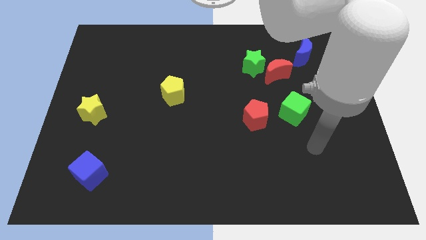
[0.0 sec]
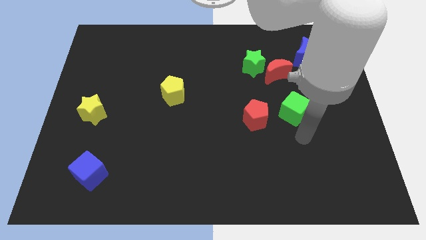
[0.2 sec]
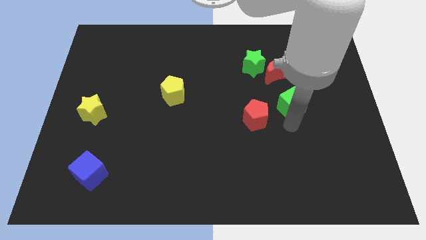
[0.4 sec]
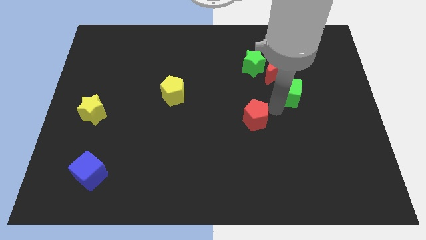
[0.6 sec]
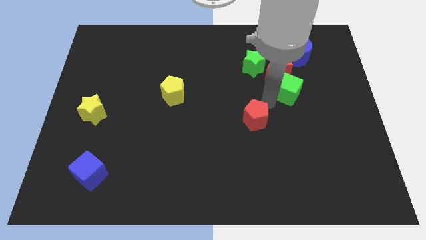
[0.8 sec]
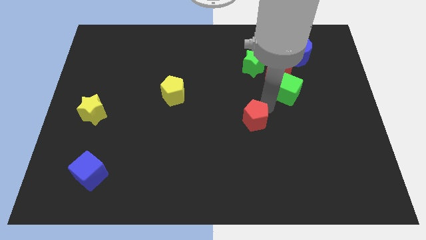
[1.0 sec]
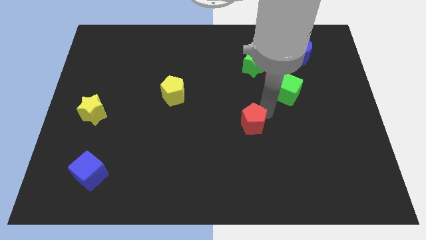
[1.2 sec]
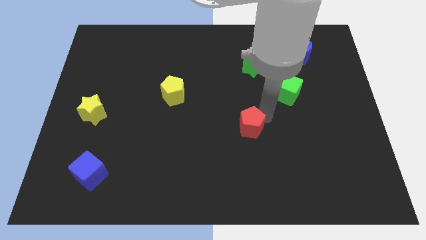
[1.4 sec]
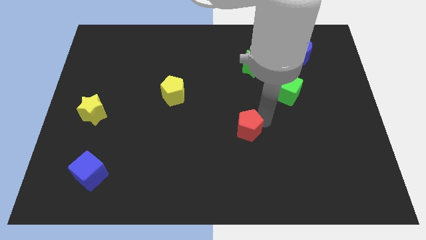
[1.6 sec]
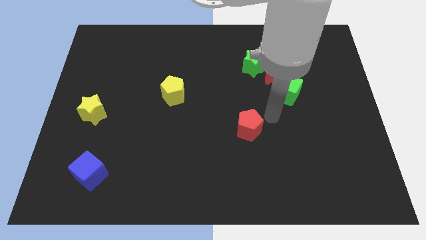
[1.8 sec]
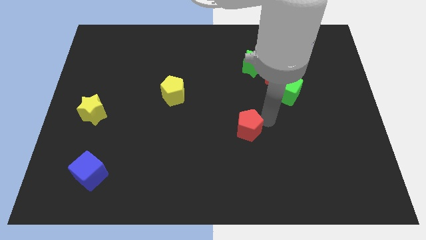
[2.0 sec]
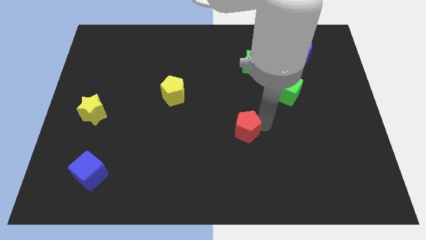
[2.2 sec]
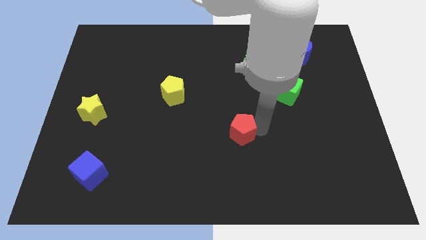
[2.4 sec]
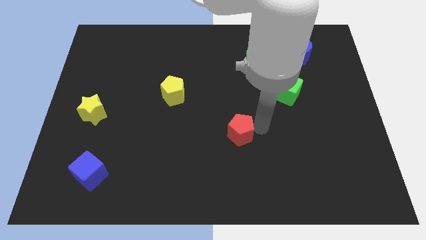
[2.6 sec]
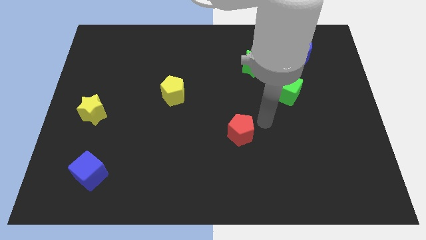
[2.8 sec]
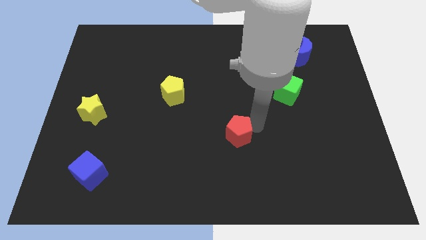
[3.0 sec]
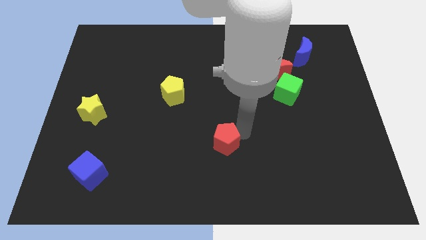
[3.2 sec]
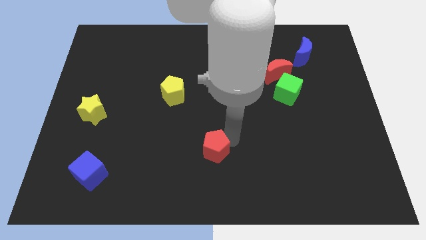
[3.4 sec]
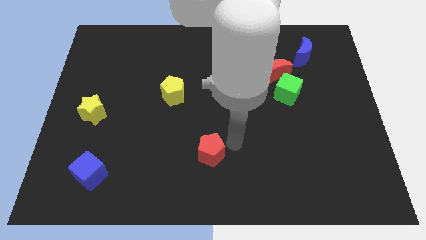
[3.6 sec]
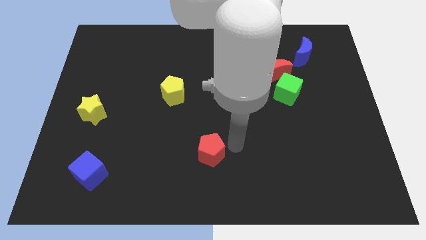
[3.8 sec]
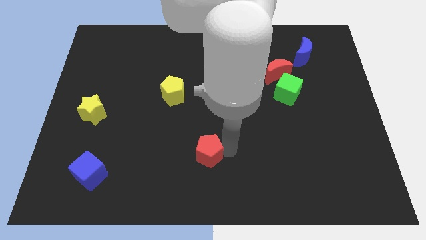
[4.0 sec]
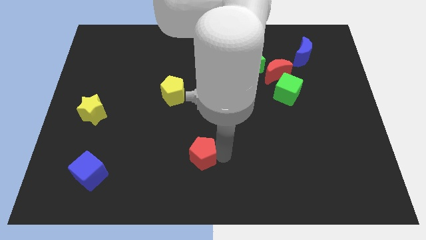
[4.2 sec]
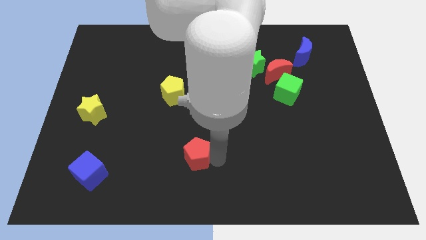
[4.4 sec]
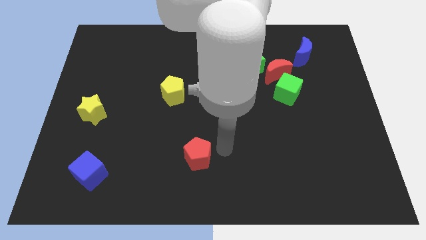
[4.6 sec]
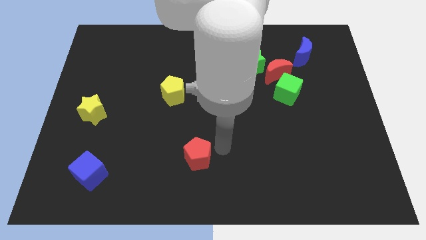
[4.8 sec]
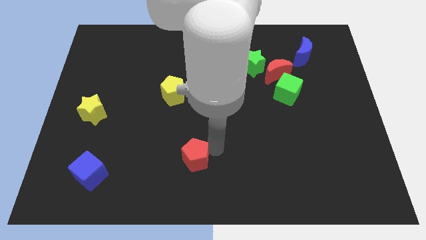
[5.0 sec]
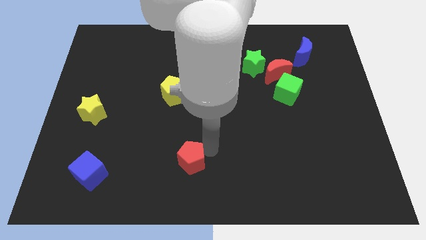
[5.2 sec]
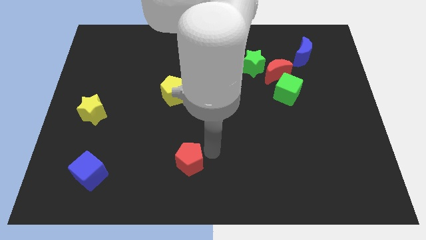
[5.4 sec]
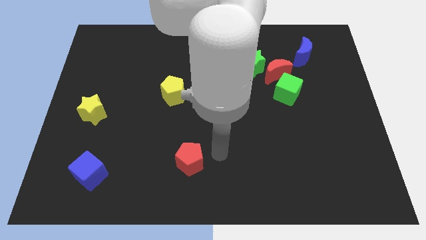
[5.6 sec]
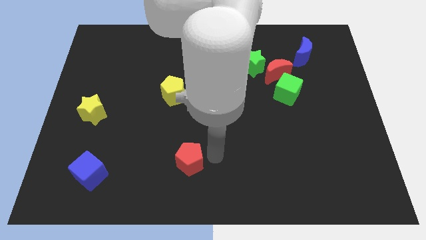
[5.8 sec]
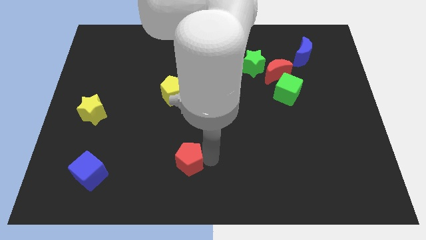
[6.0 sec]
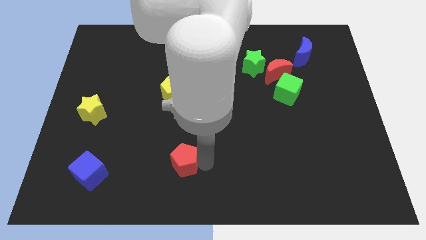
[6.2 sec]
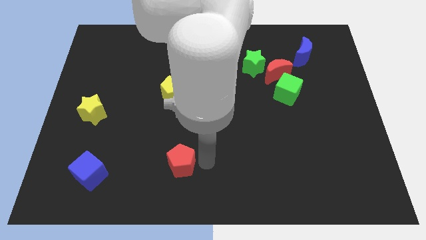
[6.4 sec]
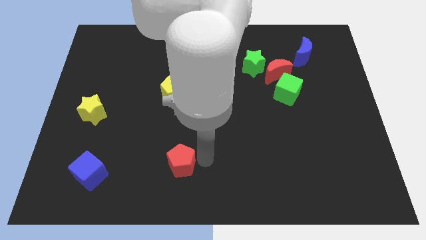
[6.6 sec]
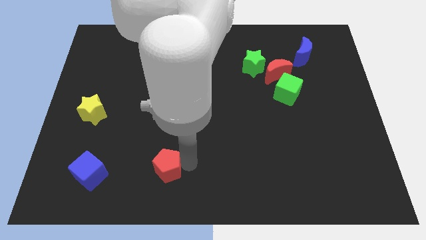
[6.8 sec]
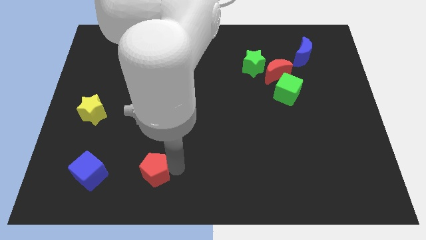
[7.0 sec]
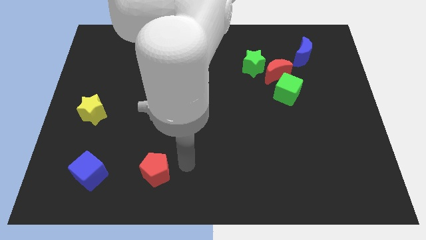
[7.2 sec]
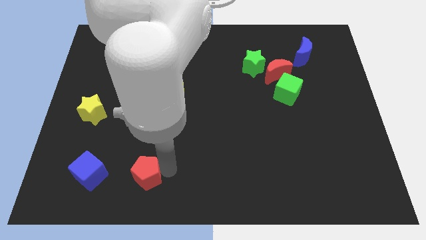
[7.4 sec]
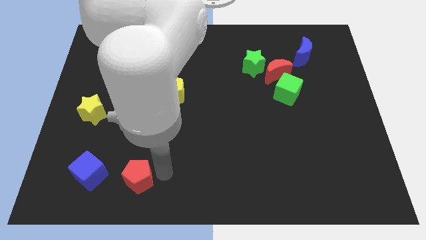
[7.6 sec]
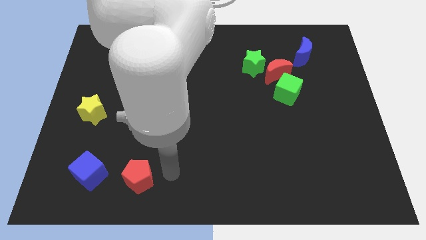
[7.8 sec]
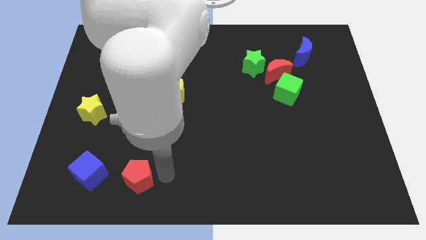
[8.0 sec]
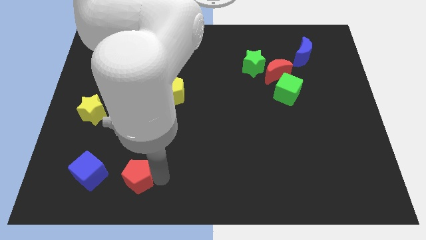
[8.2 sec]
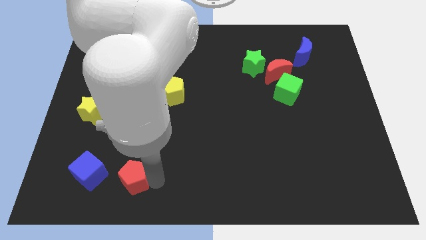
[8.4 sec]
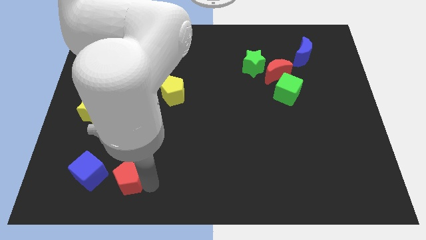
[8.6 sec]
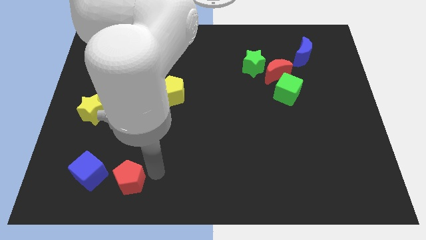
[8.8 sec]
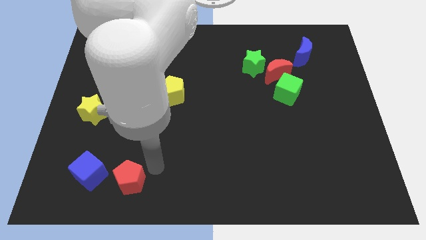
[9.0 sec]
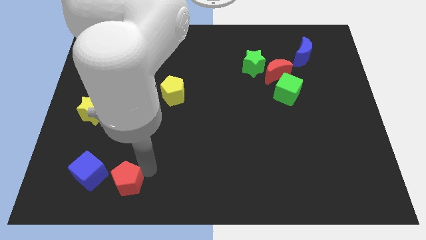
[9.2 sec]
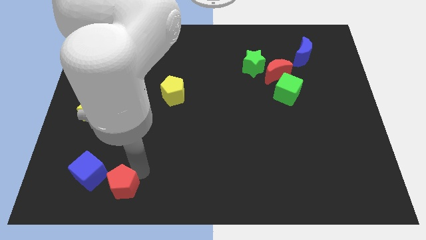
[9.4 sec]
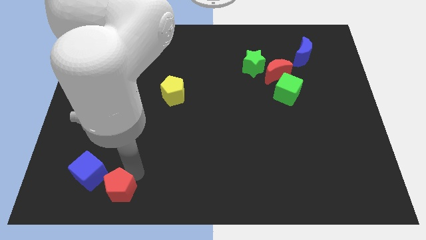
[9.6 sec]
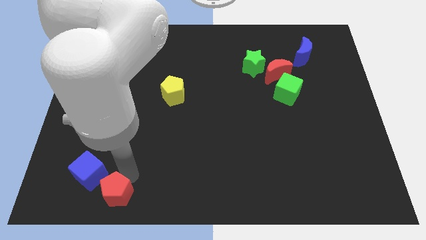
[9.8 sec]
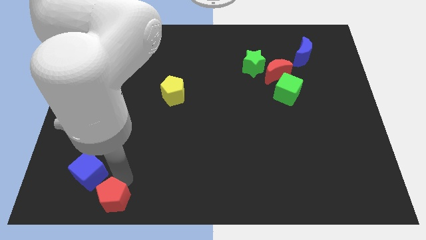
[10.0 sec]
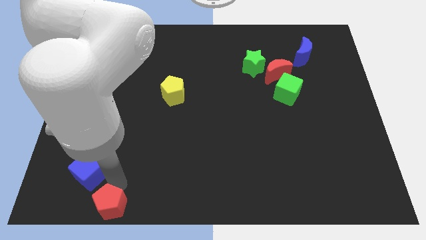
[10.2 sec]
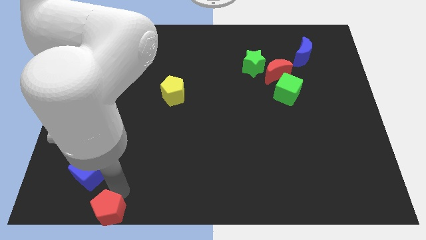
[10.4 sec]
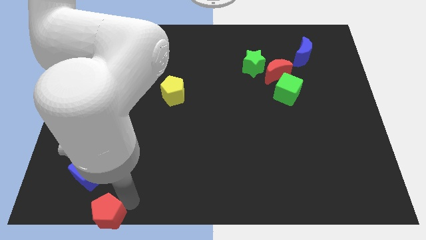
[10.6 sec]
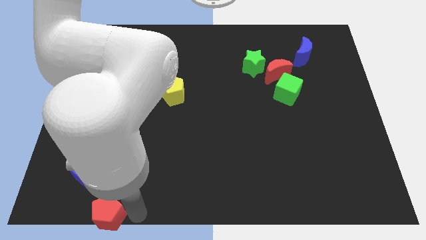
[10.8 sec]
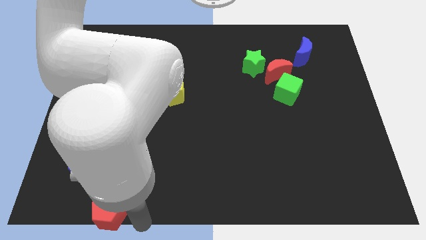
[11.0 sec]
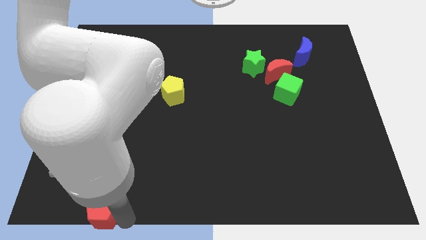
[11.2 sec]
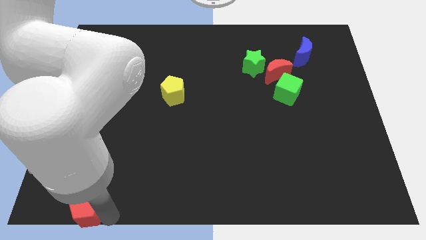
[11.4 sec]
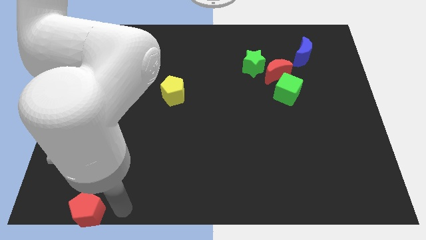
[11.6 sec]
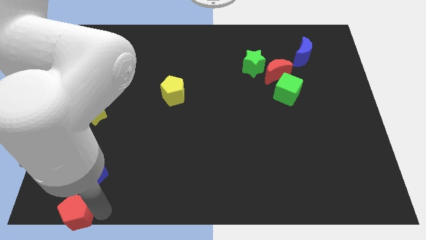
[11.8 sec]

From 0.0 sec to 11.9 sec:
move the red pentagon to the bottom left corner
